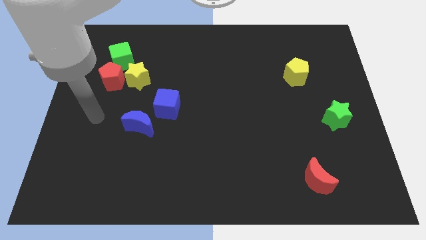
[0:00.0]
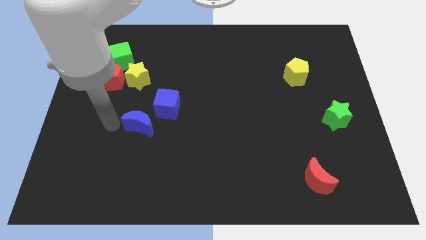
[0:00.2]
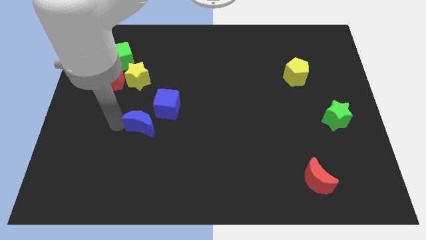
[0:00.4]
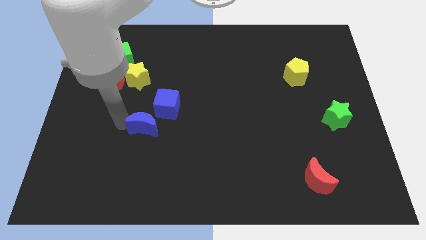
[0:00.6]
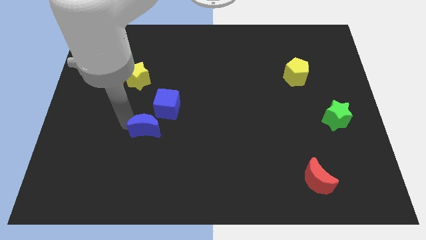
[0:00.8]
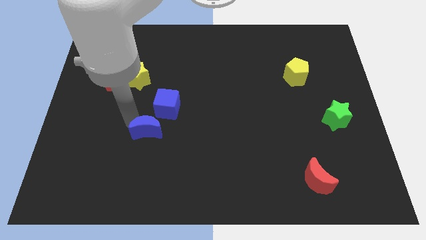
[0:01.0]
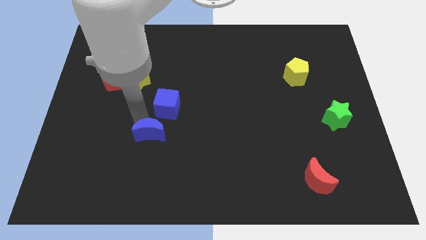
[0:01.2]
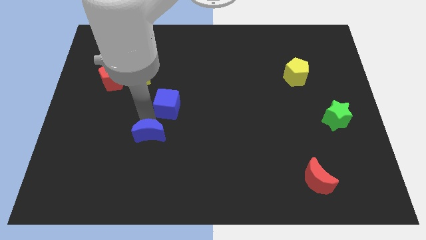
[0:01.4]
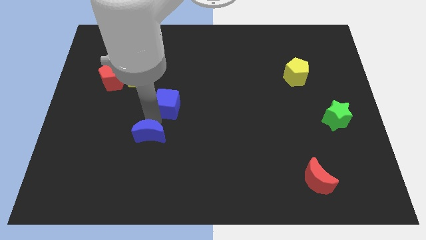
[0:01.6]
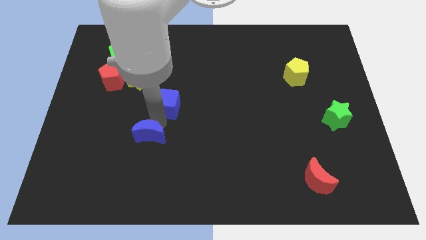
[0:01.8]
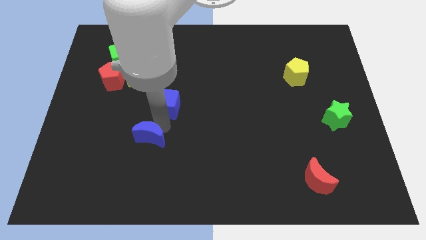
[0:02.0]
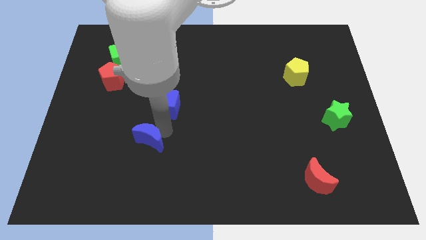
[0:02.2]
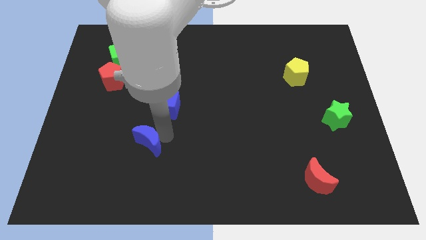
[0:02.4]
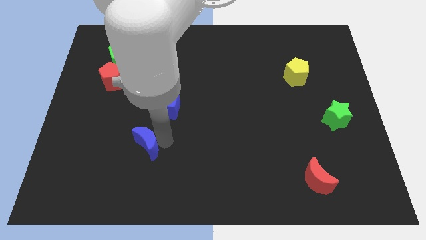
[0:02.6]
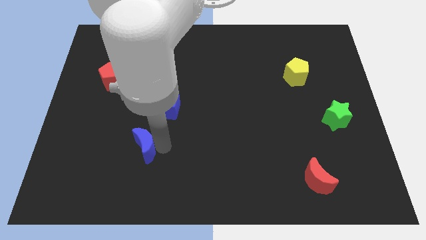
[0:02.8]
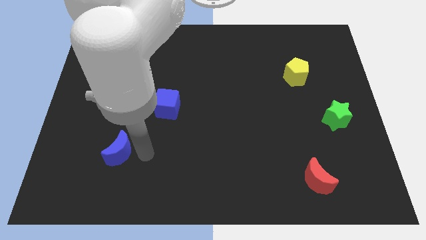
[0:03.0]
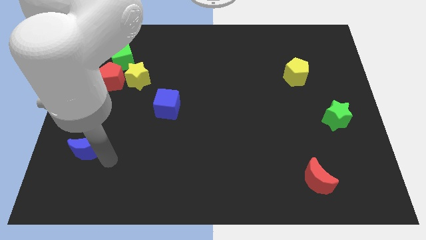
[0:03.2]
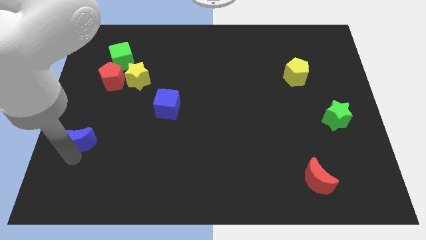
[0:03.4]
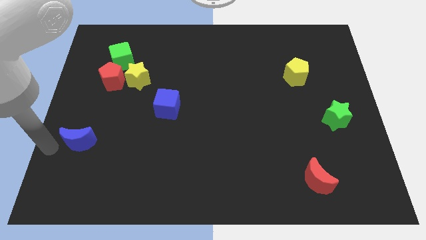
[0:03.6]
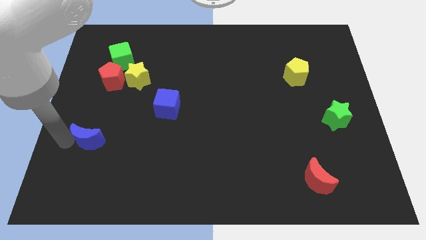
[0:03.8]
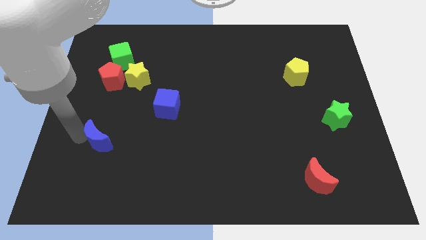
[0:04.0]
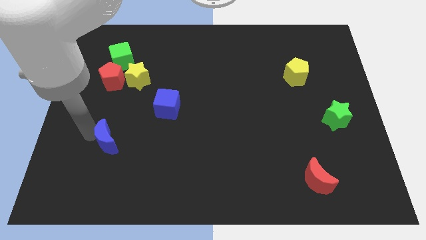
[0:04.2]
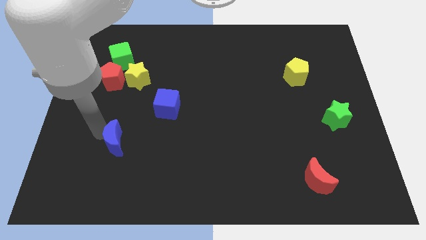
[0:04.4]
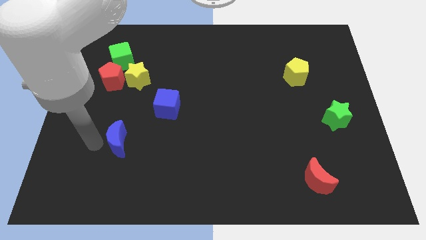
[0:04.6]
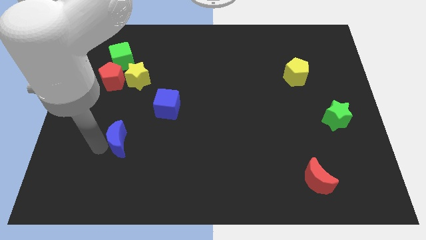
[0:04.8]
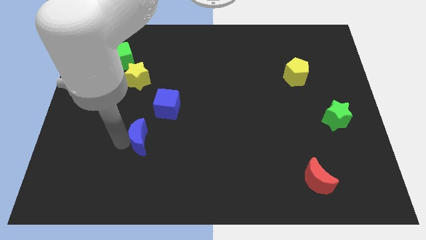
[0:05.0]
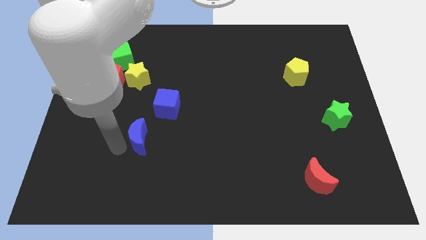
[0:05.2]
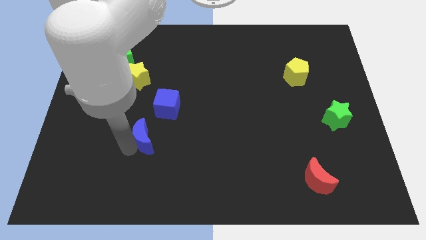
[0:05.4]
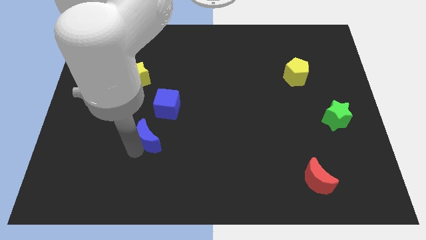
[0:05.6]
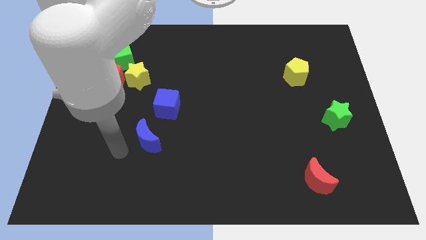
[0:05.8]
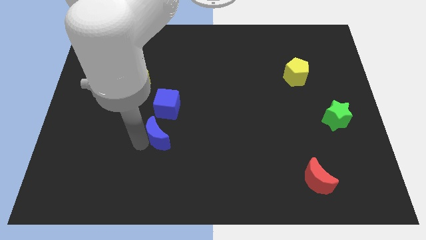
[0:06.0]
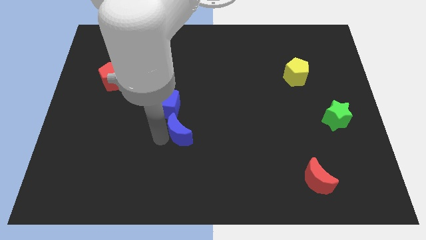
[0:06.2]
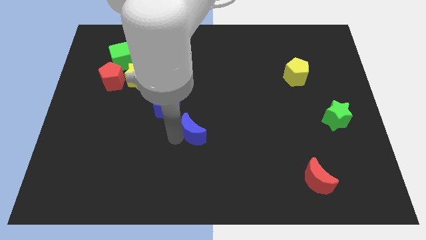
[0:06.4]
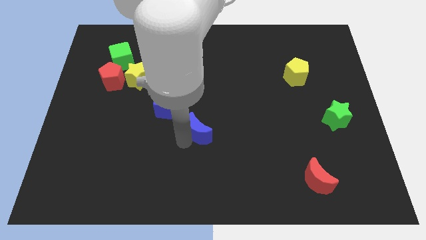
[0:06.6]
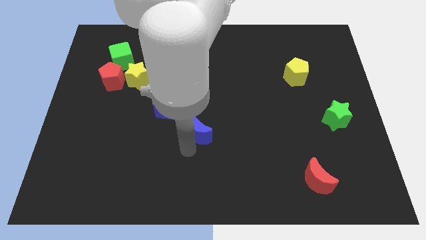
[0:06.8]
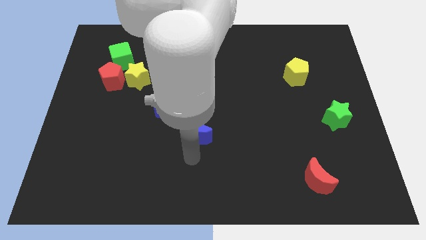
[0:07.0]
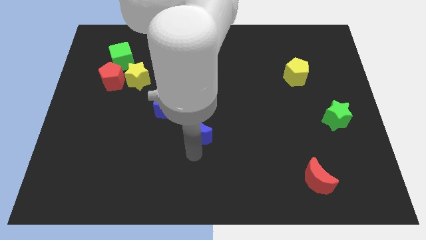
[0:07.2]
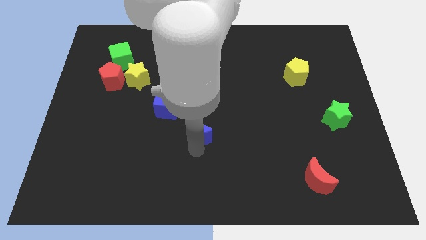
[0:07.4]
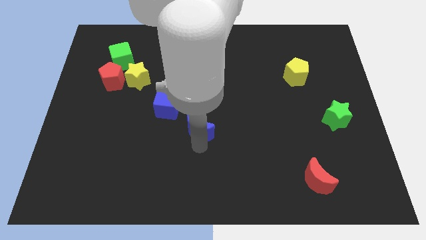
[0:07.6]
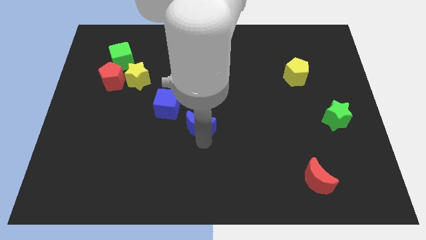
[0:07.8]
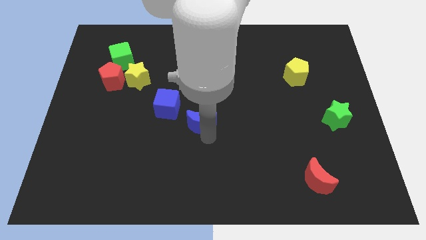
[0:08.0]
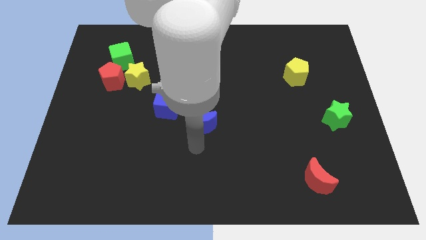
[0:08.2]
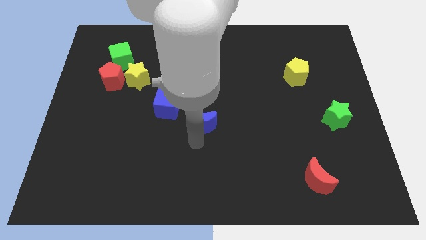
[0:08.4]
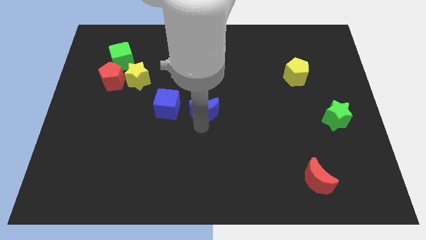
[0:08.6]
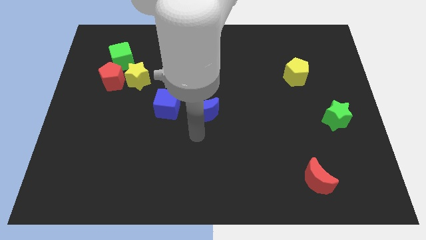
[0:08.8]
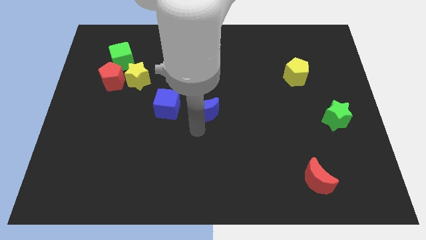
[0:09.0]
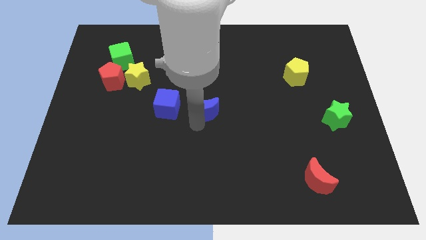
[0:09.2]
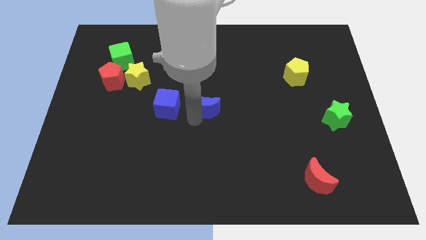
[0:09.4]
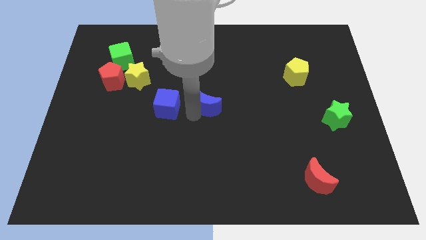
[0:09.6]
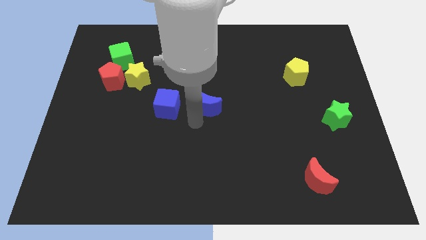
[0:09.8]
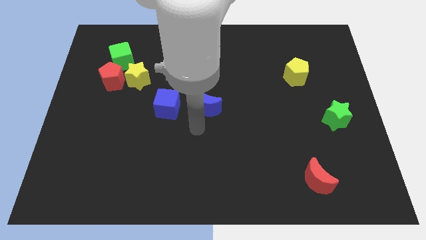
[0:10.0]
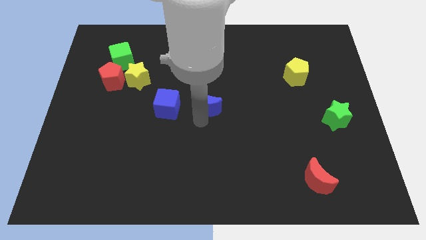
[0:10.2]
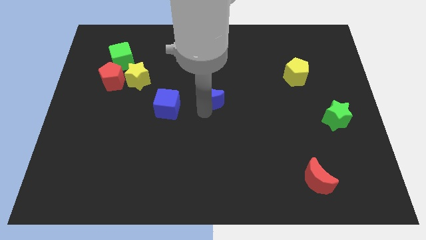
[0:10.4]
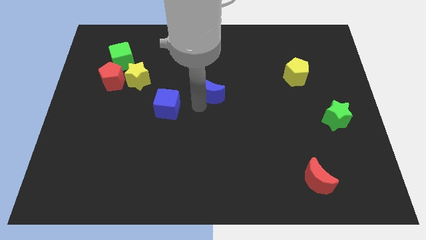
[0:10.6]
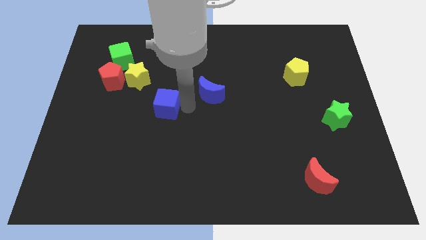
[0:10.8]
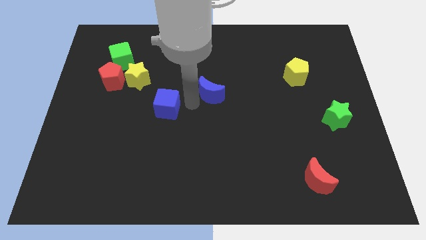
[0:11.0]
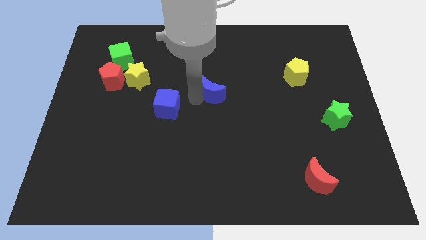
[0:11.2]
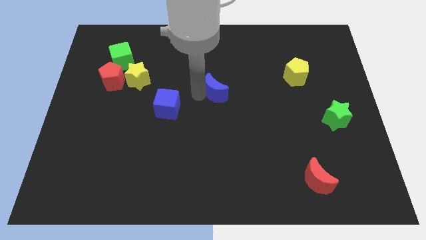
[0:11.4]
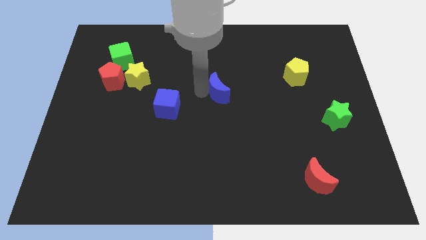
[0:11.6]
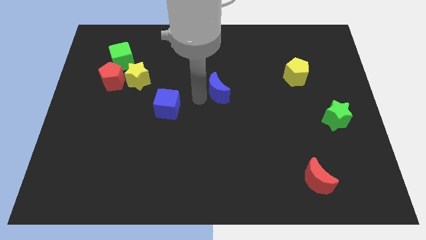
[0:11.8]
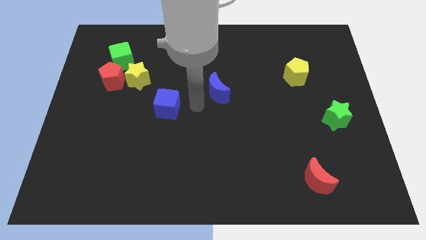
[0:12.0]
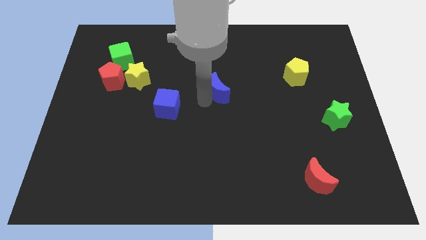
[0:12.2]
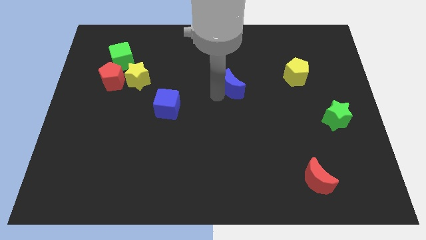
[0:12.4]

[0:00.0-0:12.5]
push the blue moon upwards and right diagonally

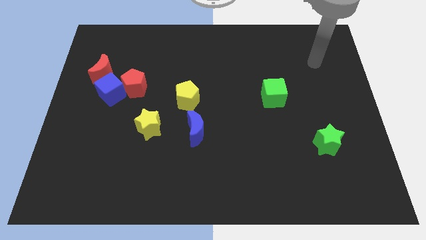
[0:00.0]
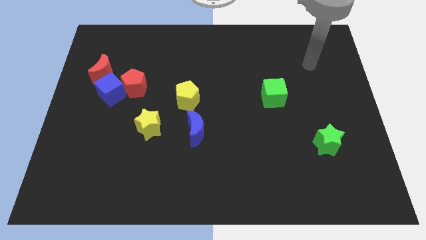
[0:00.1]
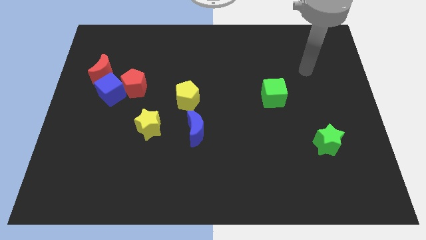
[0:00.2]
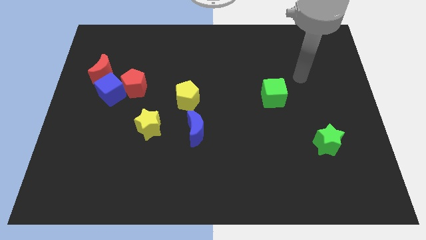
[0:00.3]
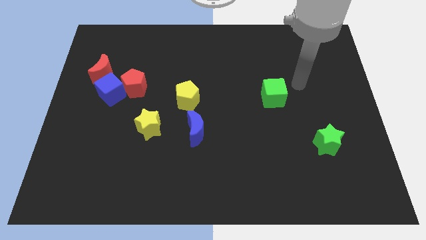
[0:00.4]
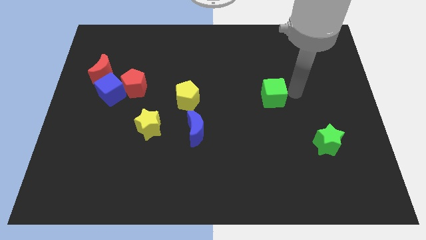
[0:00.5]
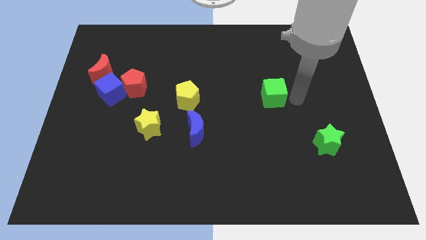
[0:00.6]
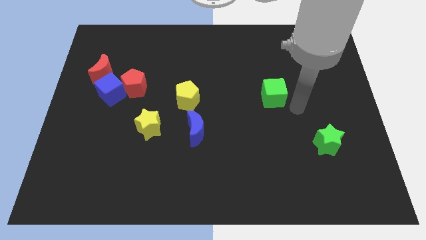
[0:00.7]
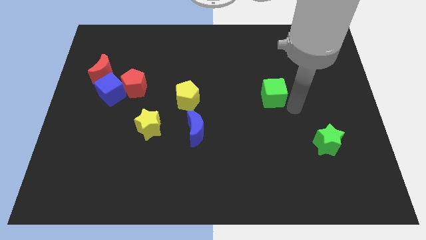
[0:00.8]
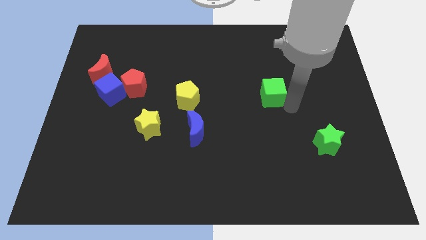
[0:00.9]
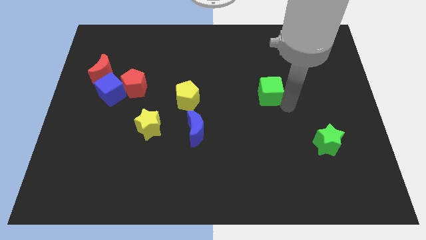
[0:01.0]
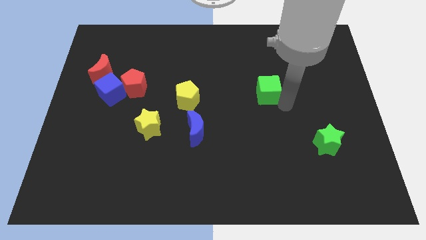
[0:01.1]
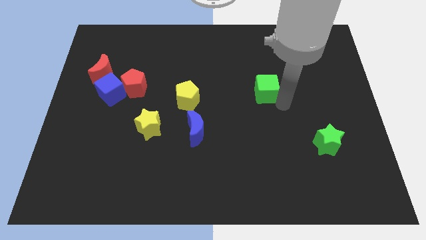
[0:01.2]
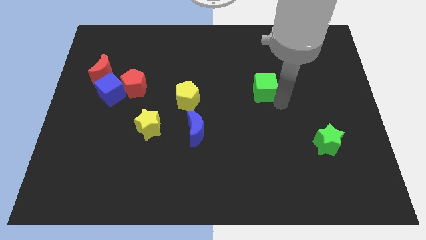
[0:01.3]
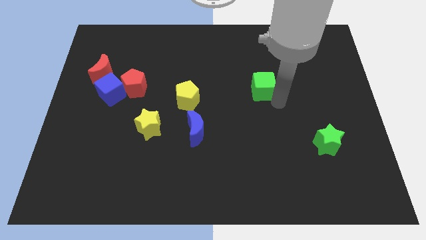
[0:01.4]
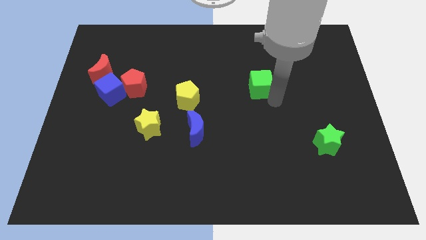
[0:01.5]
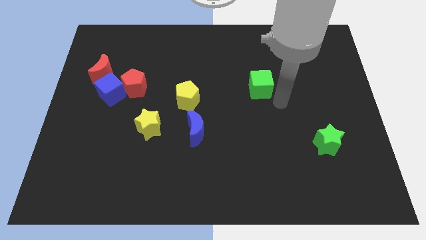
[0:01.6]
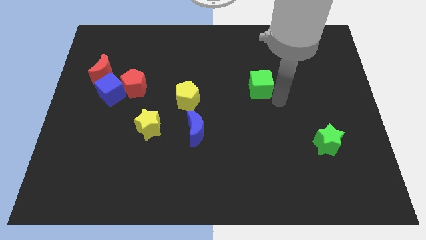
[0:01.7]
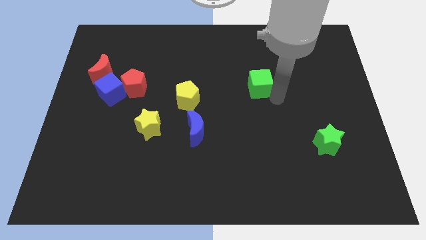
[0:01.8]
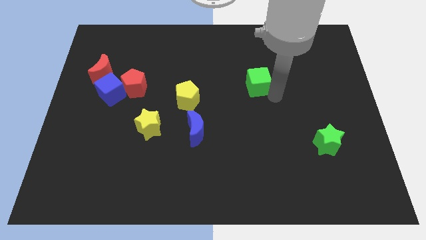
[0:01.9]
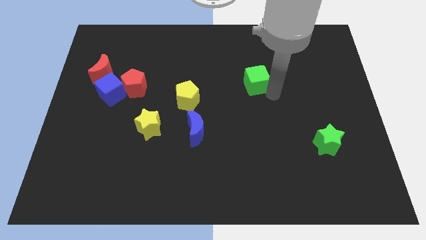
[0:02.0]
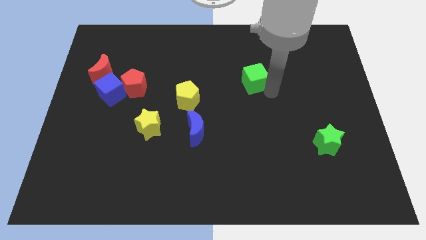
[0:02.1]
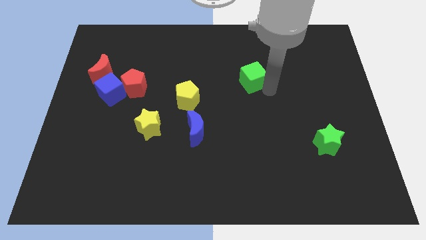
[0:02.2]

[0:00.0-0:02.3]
slightly push the green cube upwards and then to the left
